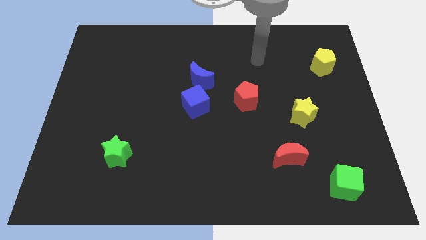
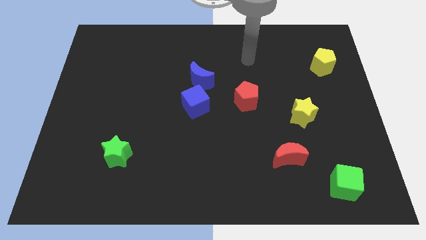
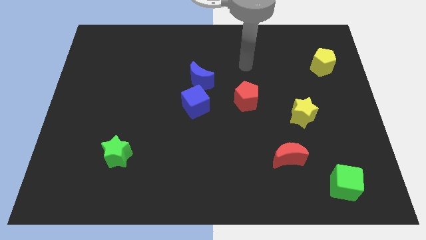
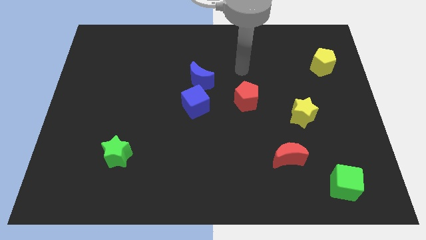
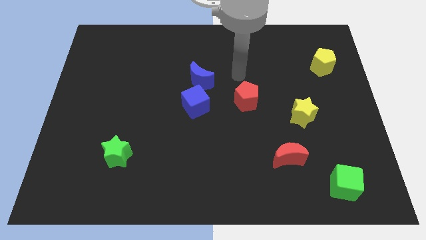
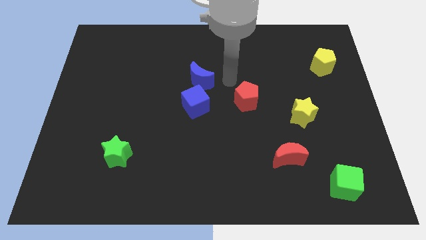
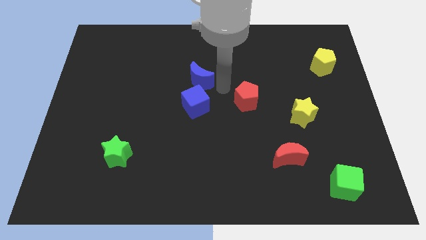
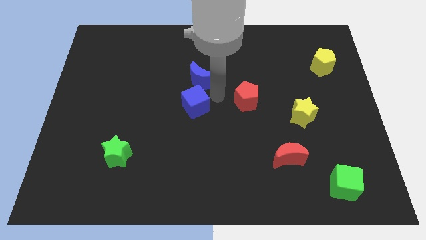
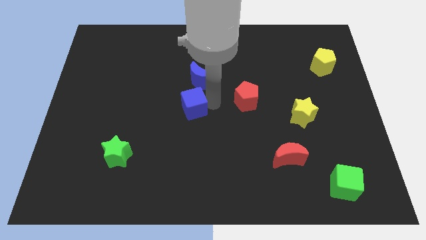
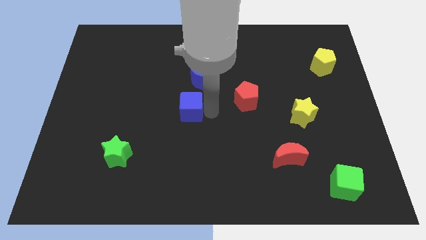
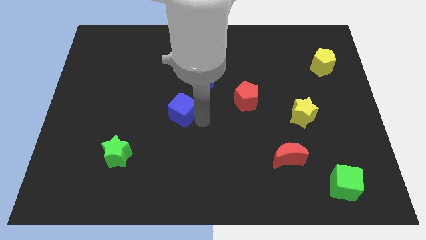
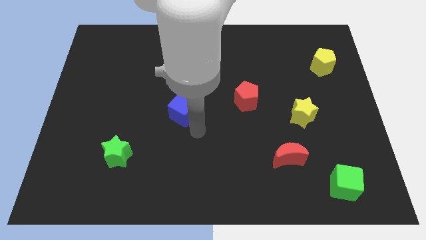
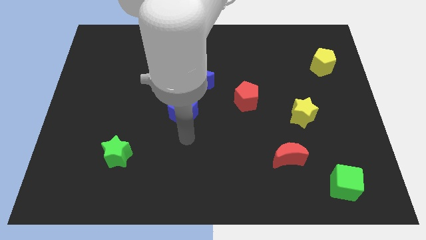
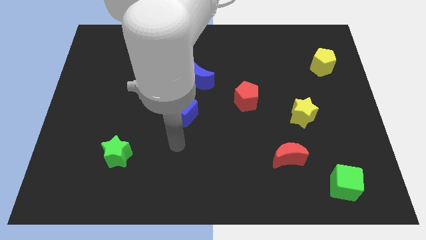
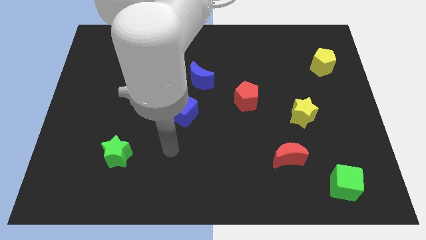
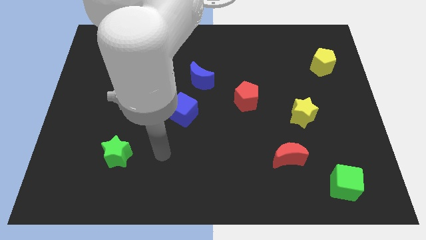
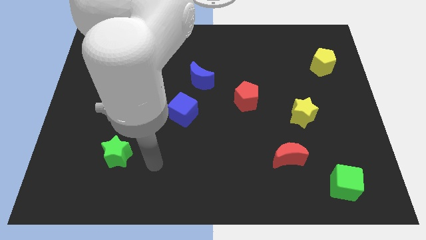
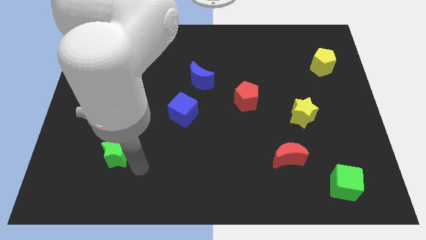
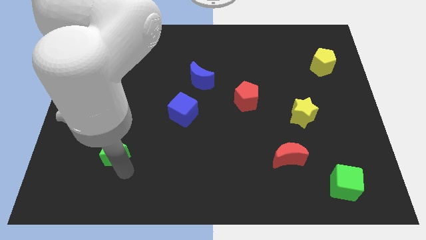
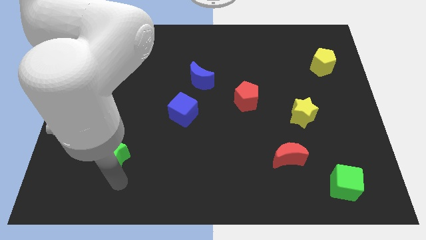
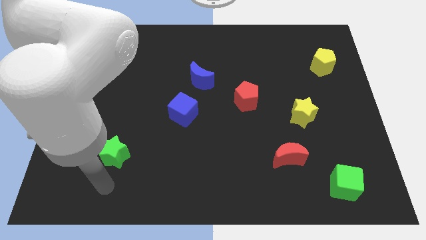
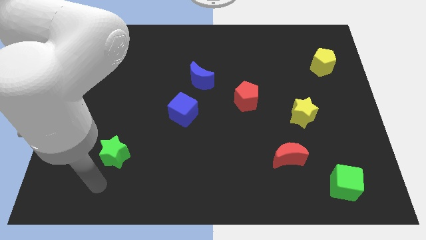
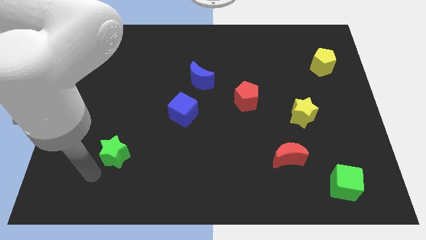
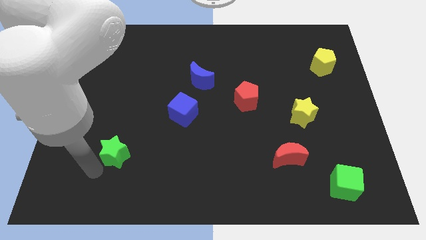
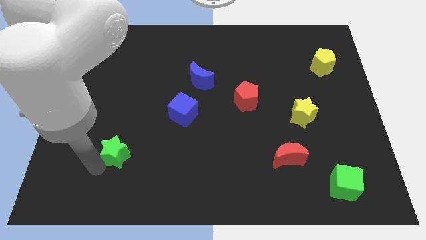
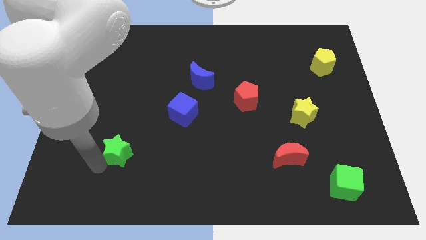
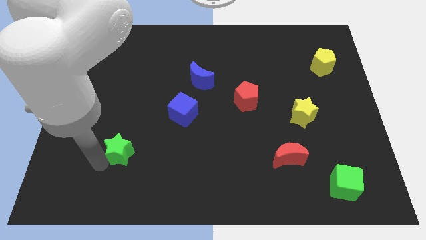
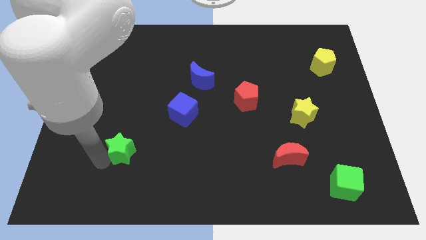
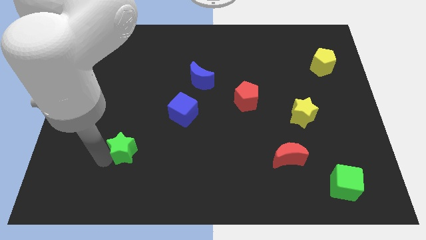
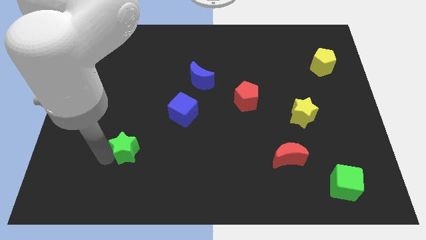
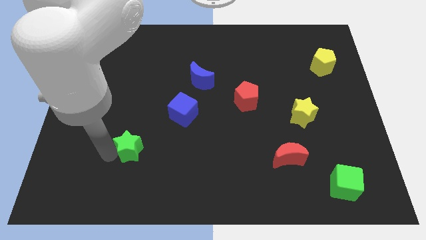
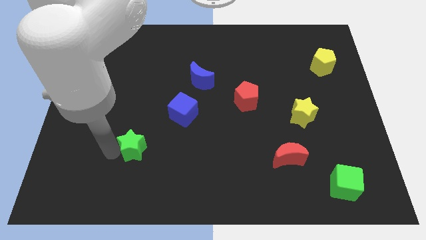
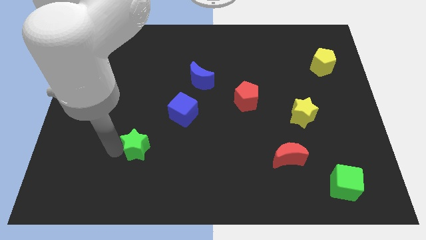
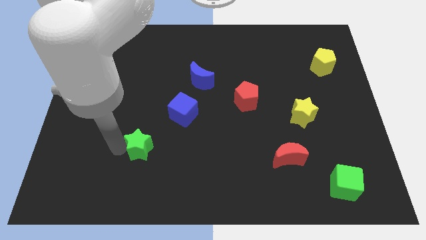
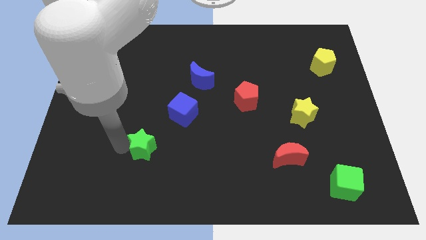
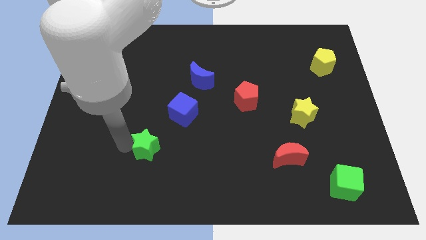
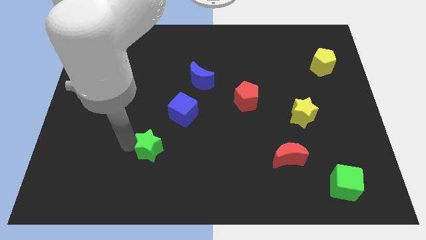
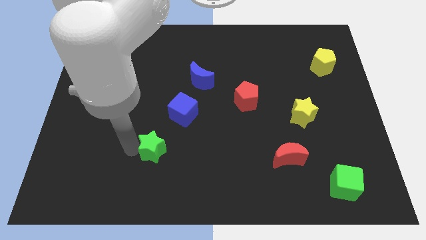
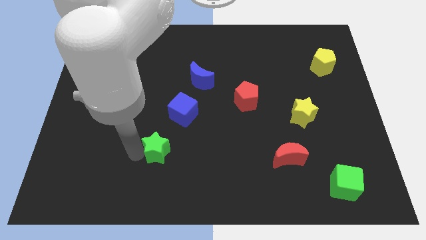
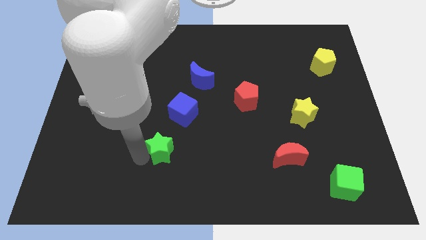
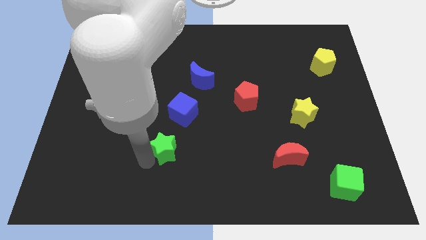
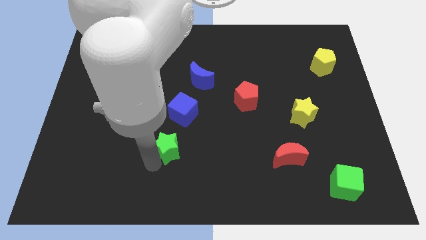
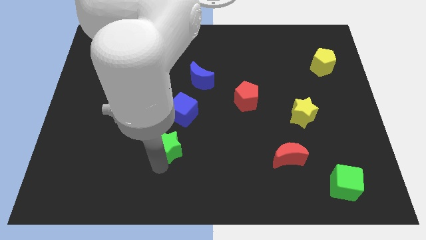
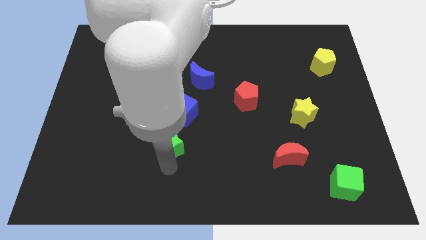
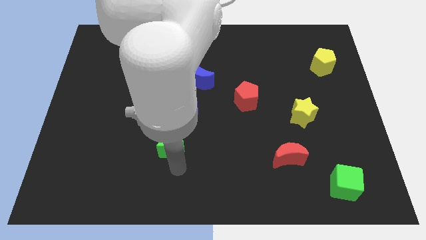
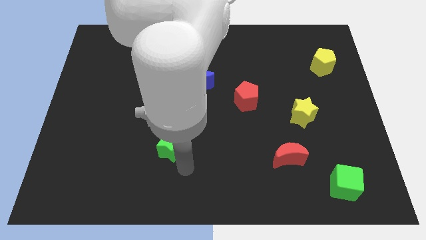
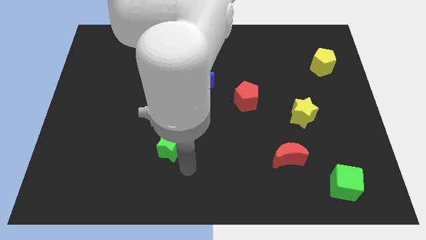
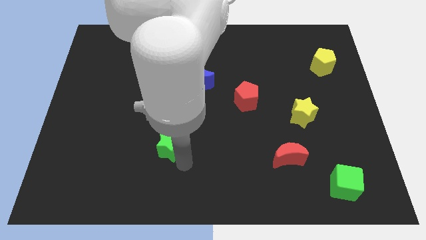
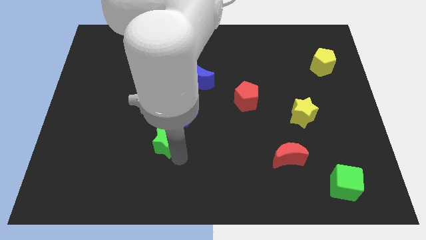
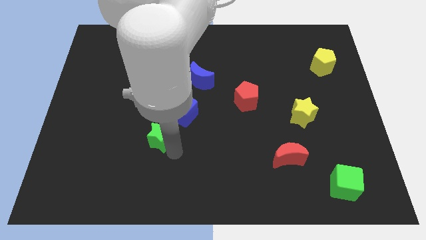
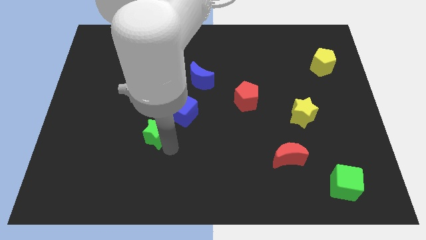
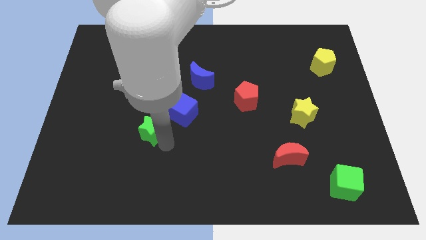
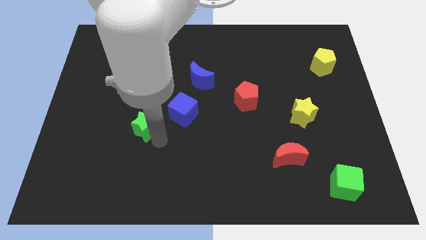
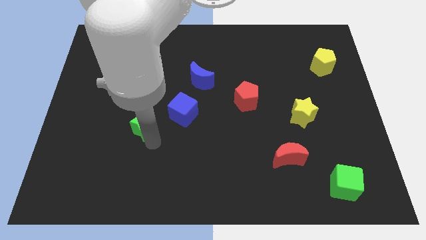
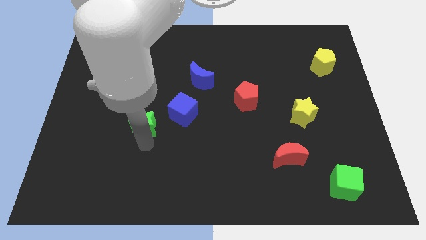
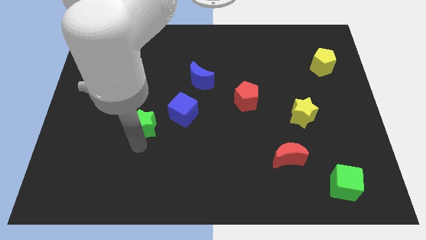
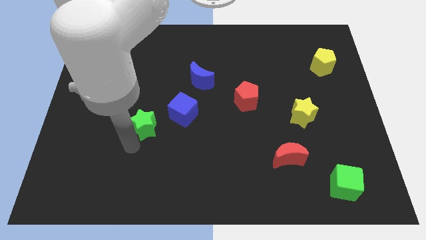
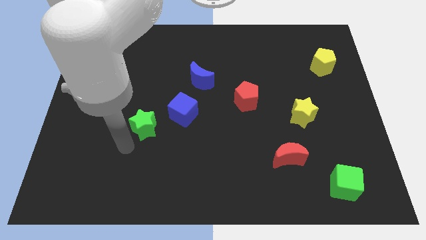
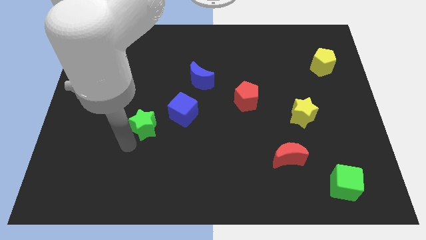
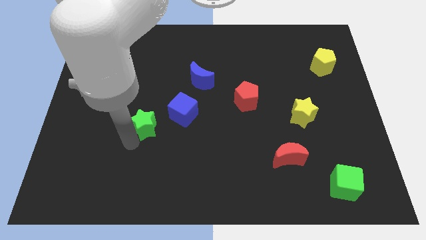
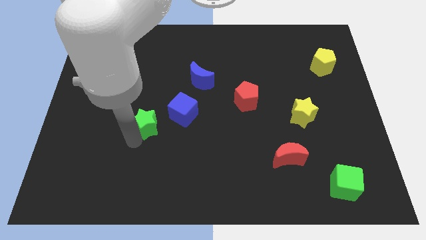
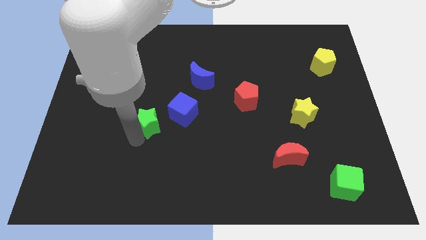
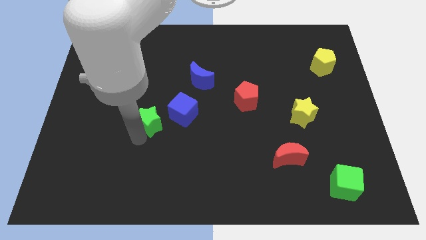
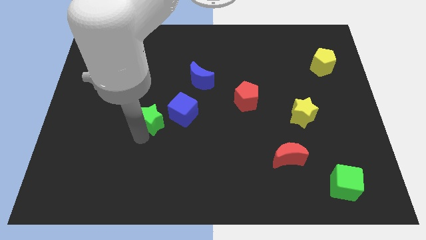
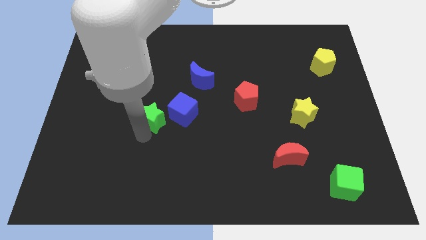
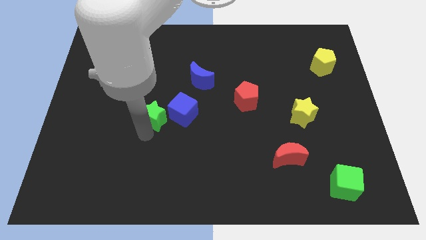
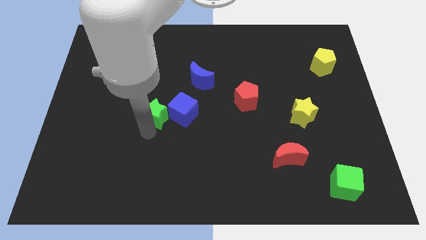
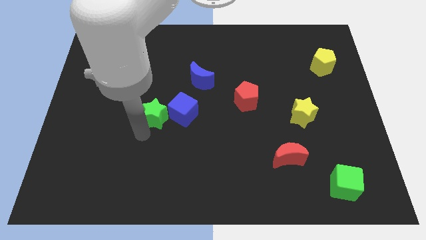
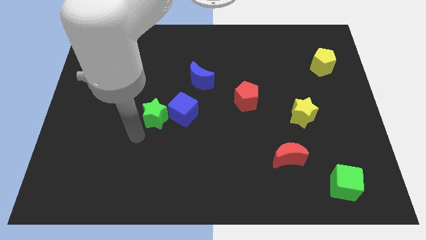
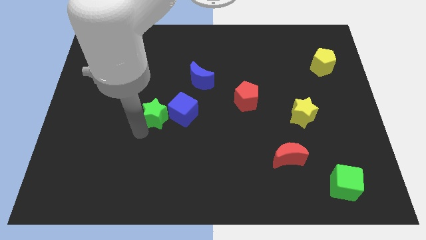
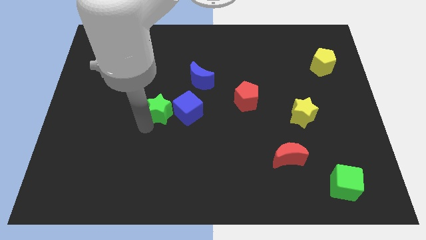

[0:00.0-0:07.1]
move the green star to the top left of the blue cube
